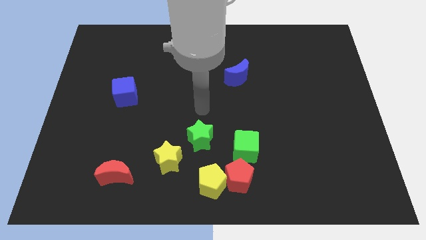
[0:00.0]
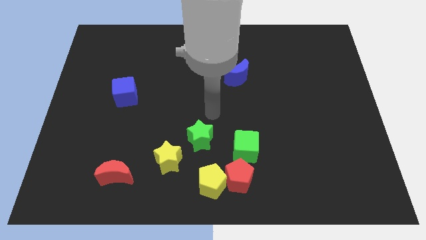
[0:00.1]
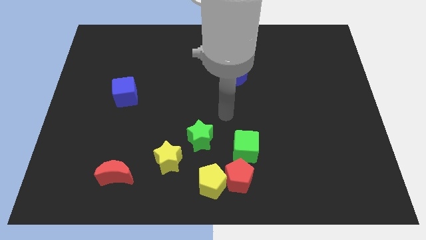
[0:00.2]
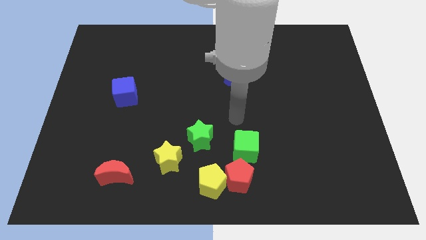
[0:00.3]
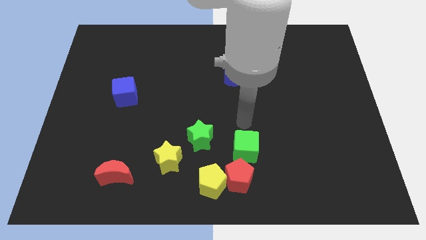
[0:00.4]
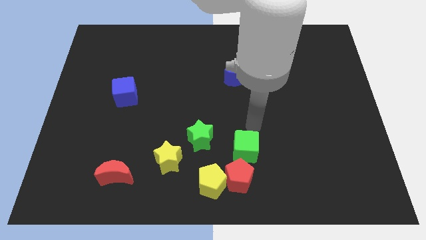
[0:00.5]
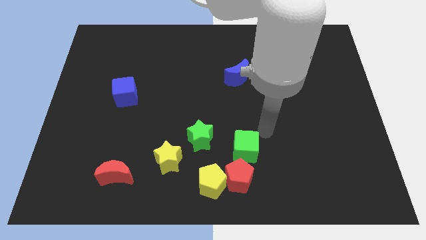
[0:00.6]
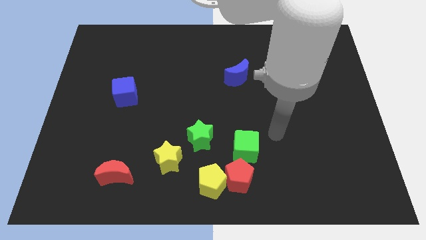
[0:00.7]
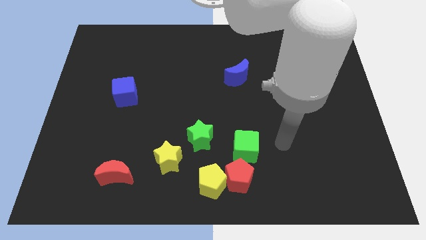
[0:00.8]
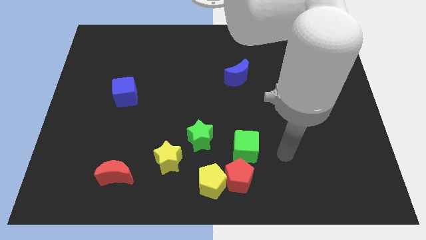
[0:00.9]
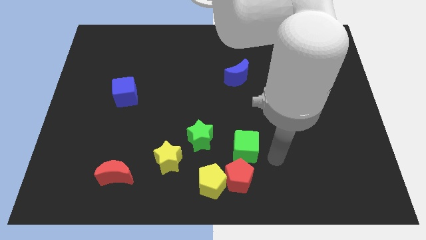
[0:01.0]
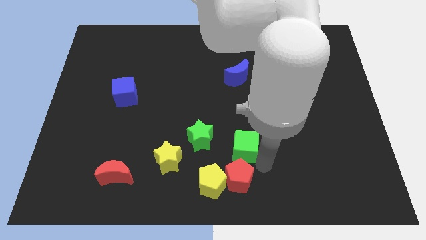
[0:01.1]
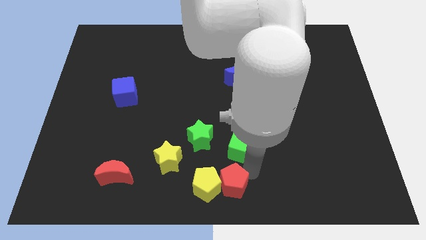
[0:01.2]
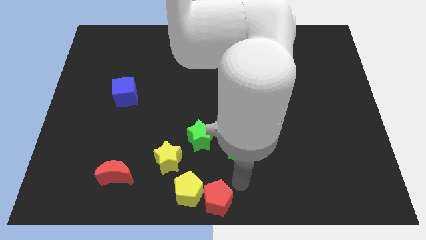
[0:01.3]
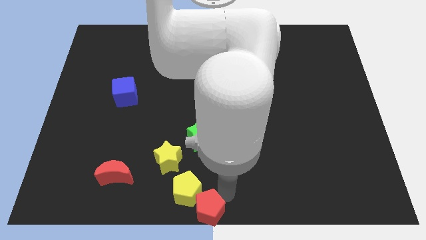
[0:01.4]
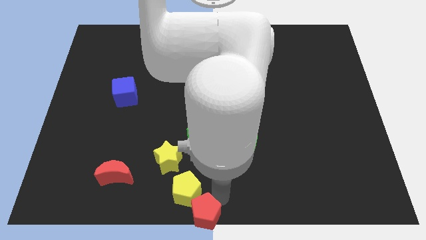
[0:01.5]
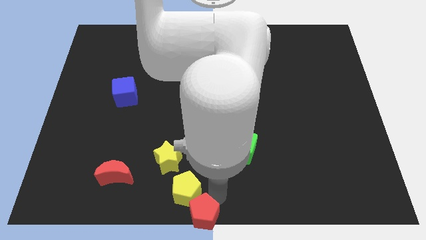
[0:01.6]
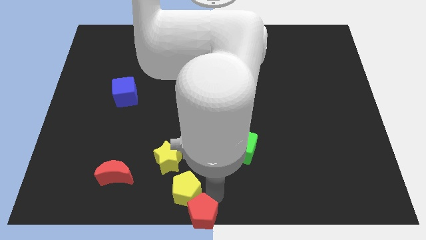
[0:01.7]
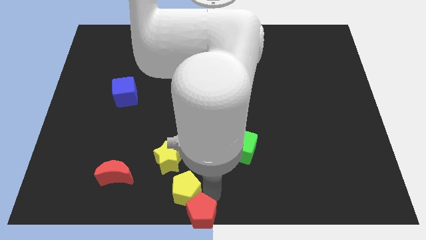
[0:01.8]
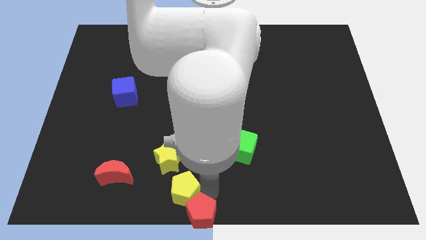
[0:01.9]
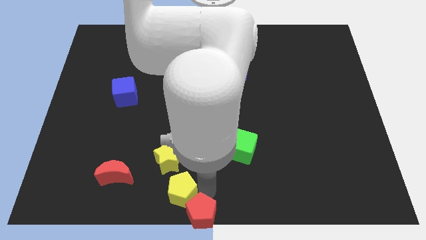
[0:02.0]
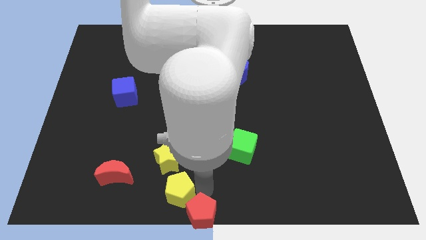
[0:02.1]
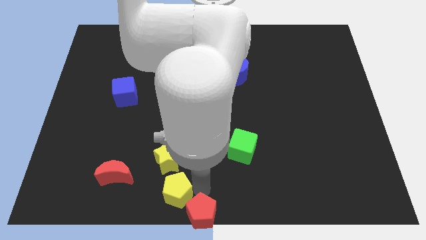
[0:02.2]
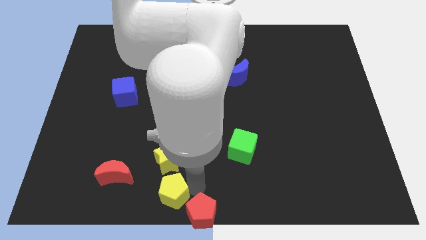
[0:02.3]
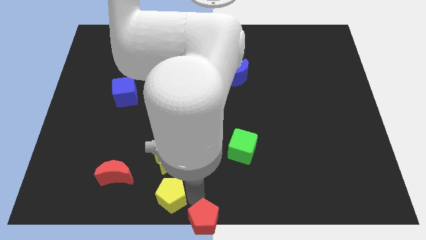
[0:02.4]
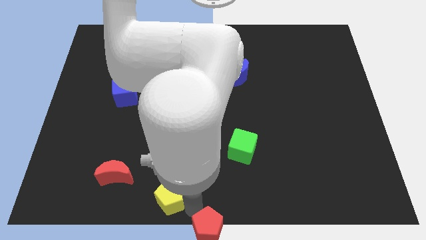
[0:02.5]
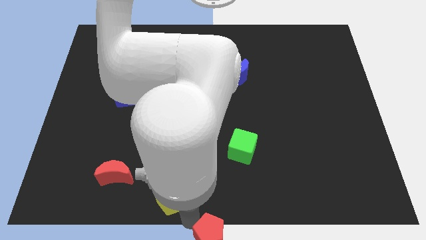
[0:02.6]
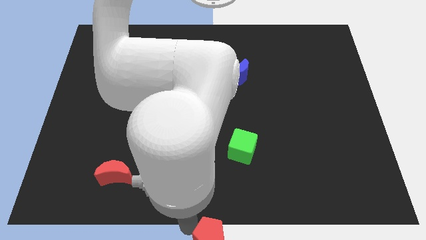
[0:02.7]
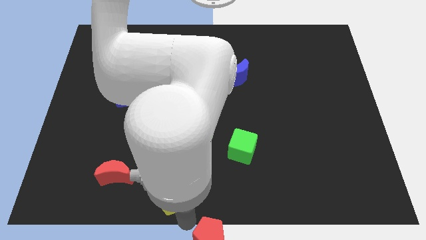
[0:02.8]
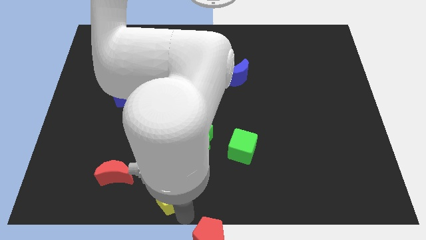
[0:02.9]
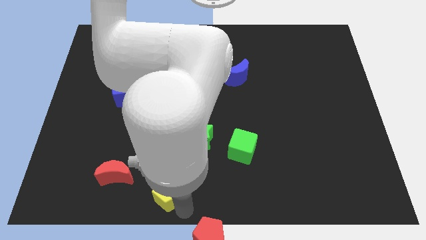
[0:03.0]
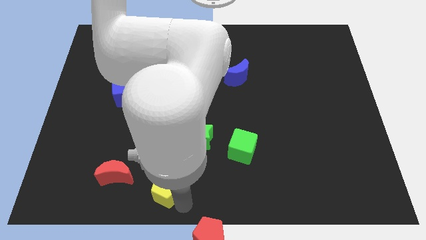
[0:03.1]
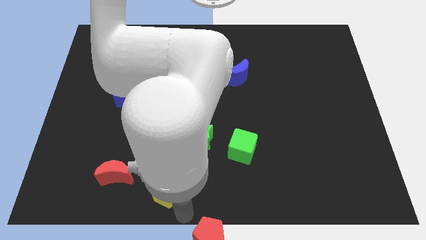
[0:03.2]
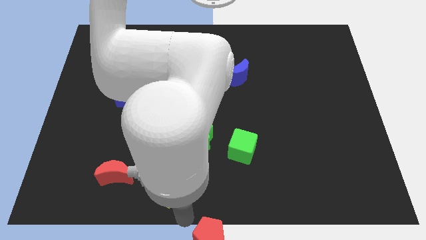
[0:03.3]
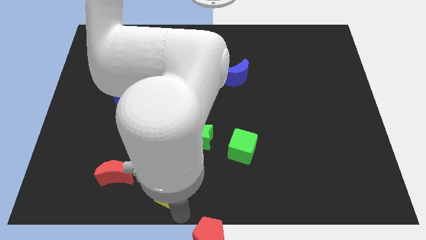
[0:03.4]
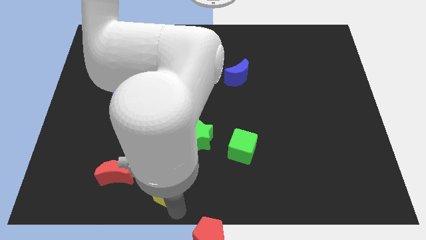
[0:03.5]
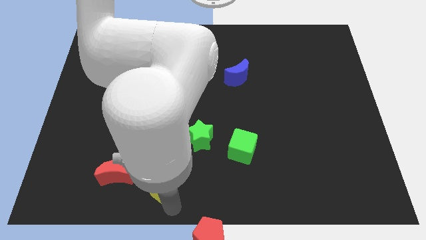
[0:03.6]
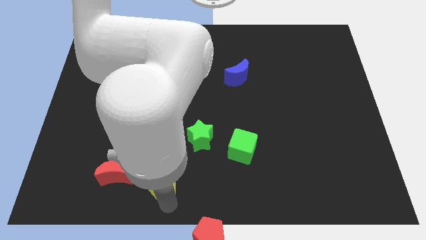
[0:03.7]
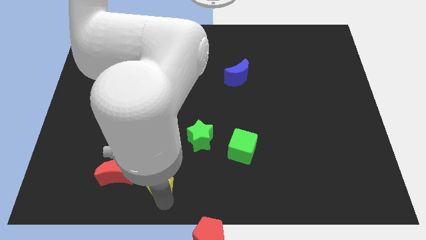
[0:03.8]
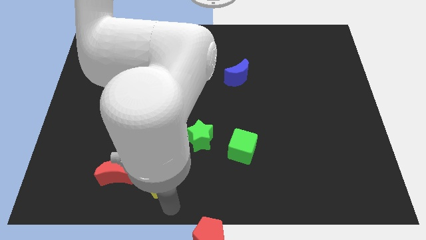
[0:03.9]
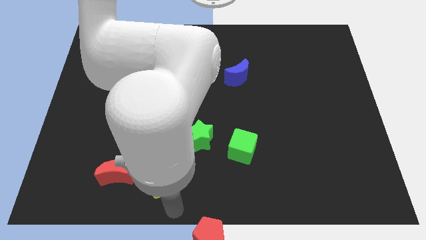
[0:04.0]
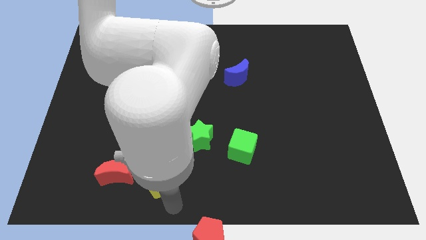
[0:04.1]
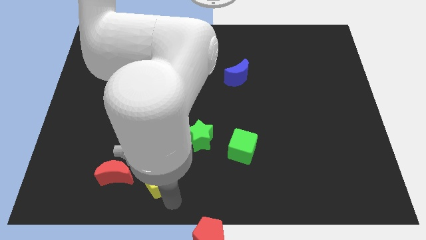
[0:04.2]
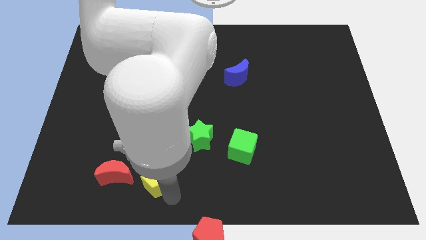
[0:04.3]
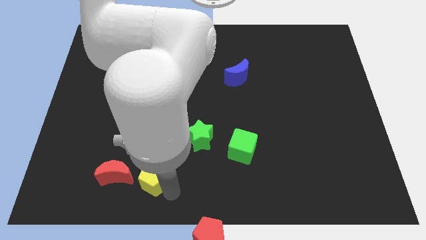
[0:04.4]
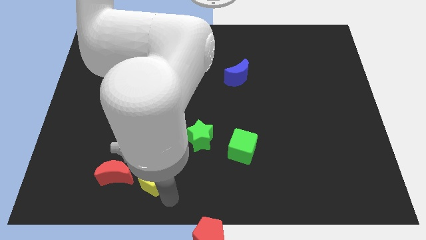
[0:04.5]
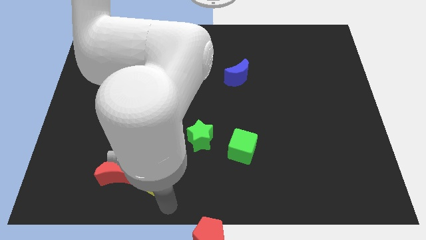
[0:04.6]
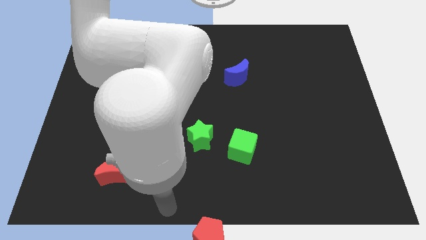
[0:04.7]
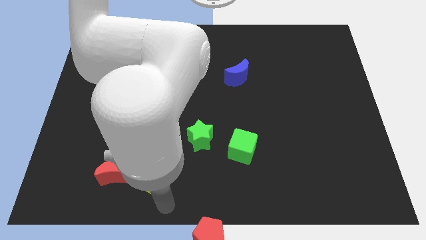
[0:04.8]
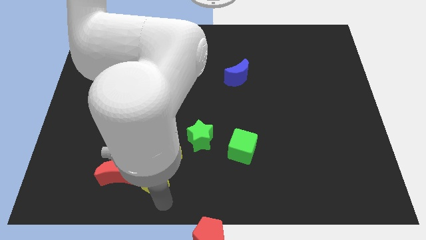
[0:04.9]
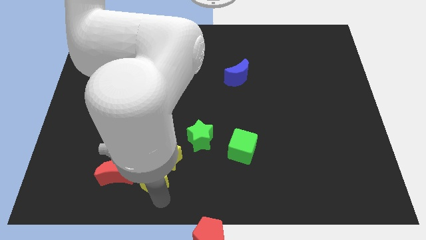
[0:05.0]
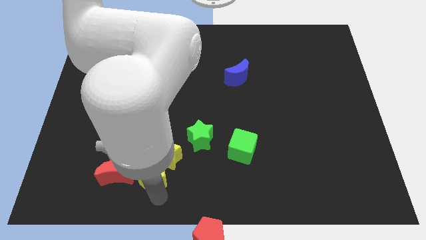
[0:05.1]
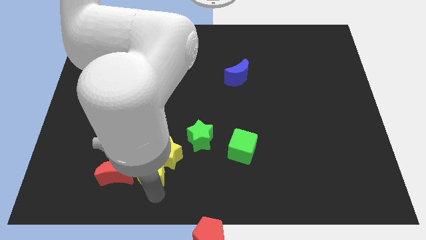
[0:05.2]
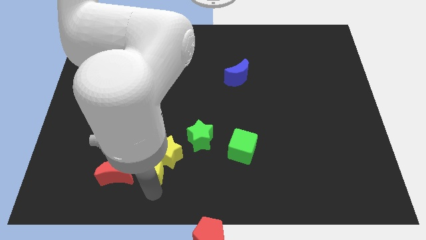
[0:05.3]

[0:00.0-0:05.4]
move the yellow pentagon diagonally up and to the right of the red moon

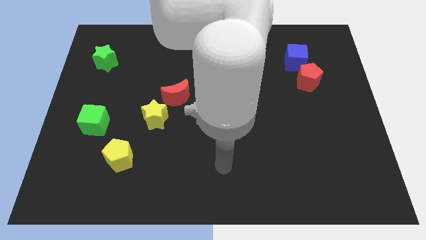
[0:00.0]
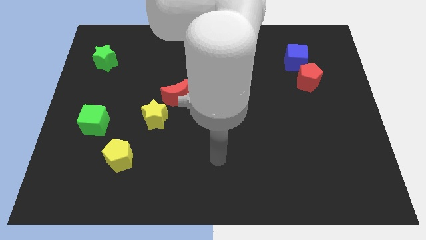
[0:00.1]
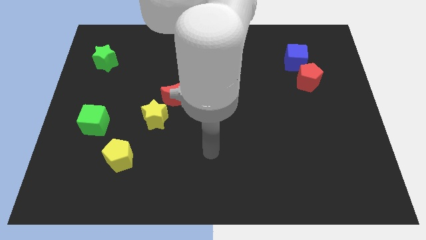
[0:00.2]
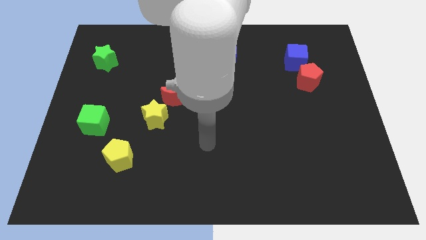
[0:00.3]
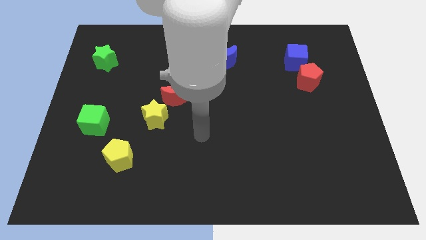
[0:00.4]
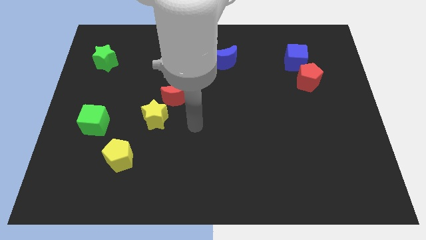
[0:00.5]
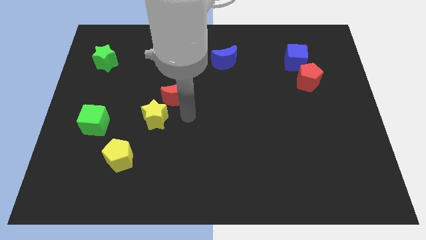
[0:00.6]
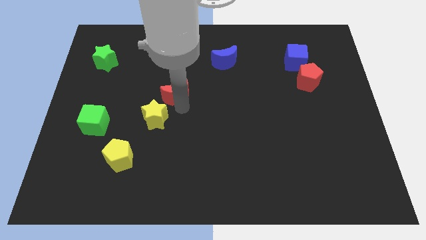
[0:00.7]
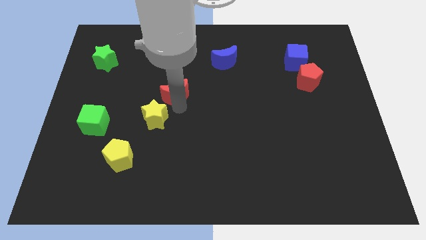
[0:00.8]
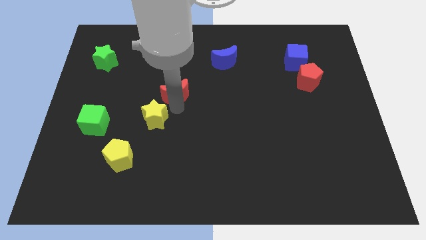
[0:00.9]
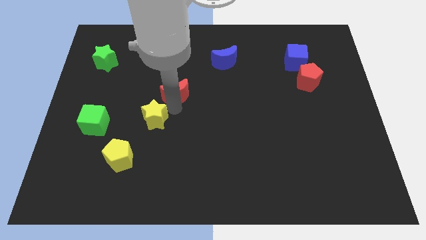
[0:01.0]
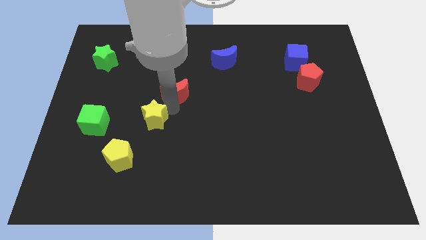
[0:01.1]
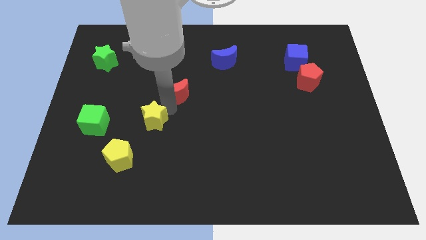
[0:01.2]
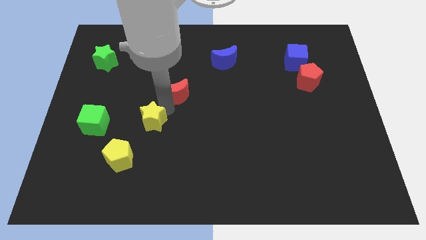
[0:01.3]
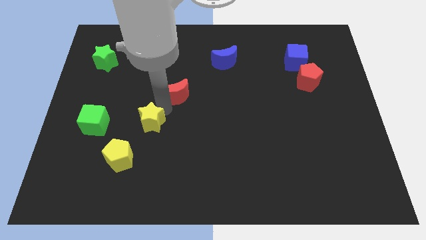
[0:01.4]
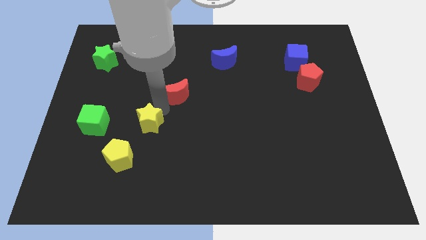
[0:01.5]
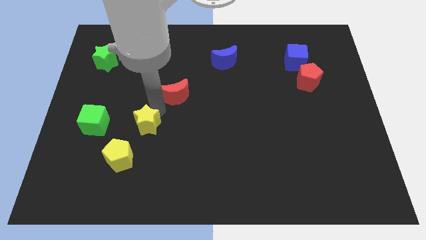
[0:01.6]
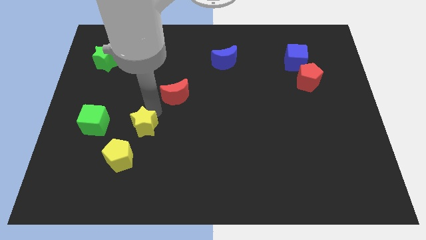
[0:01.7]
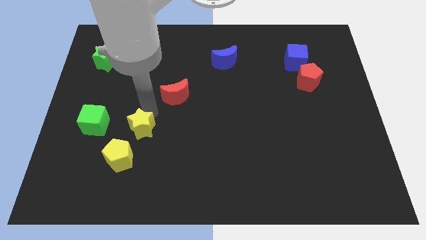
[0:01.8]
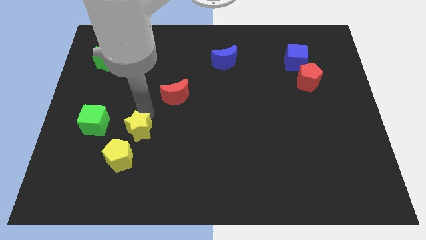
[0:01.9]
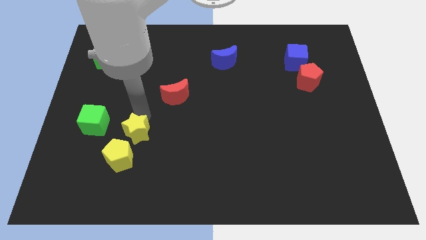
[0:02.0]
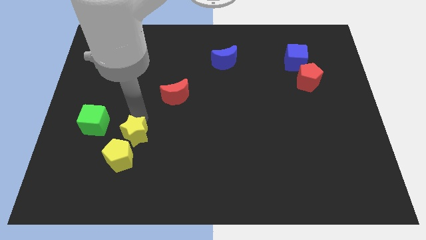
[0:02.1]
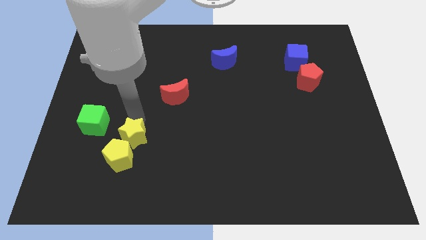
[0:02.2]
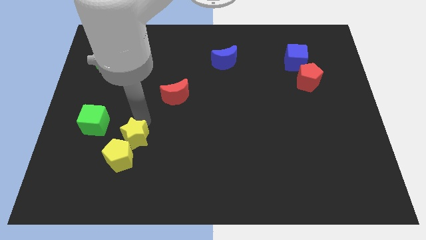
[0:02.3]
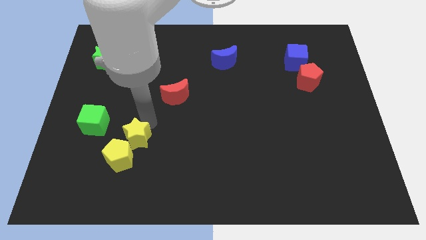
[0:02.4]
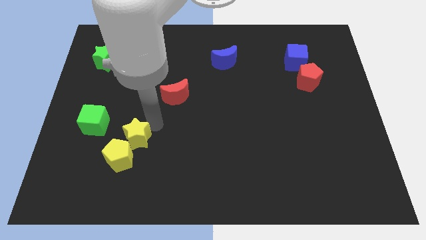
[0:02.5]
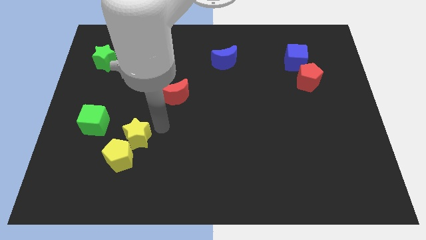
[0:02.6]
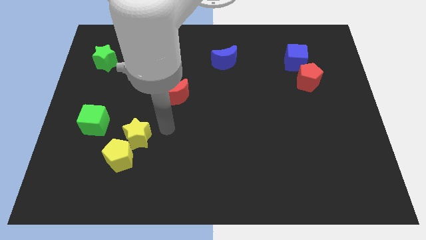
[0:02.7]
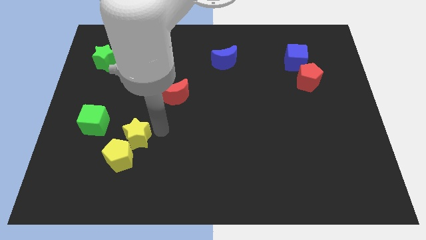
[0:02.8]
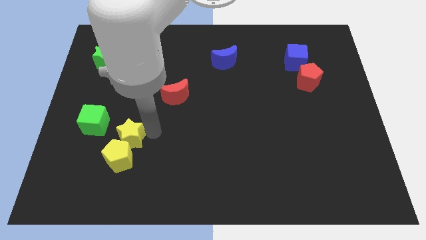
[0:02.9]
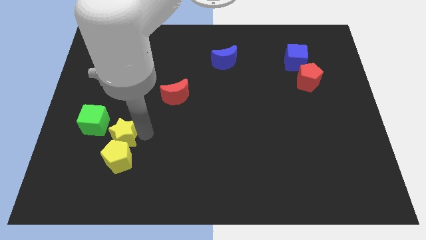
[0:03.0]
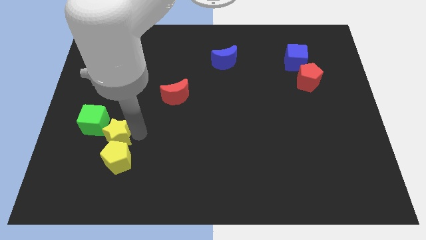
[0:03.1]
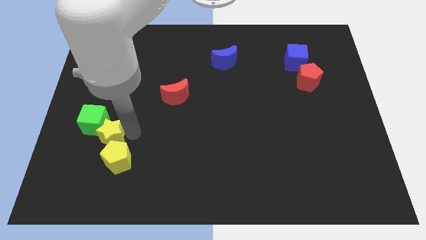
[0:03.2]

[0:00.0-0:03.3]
put the yellow star to the bottom side of the green cube

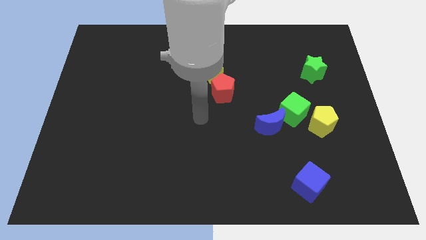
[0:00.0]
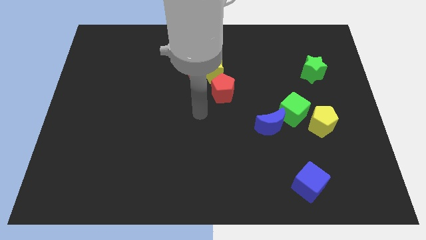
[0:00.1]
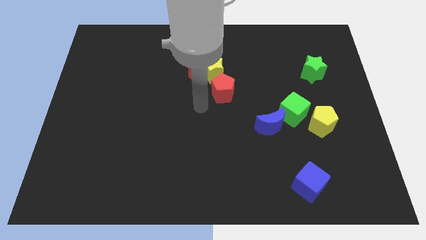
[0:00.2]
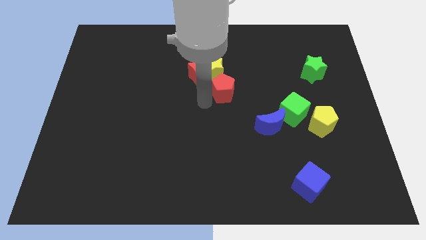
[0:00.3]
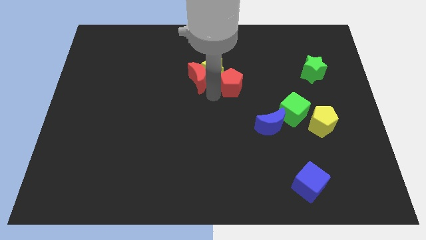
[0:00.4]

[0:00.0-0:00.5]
push the yellow star to the left side of the red pentagon
